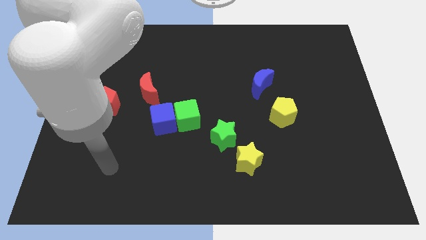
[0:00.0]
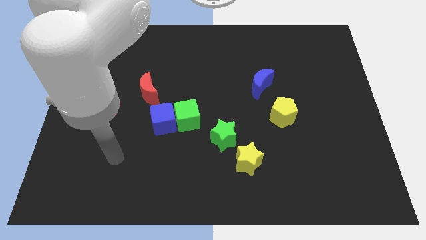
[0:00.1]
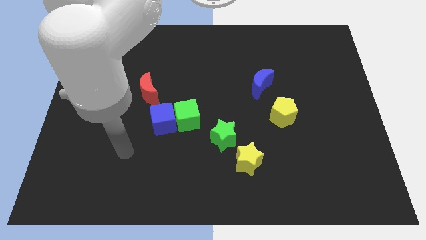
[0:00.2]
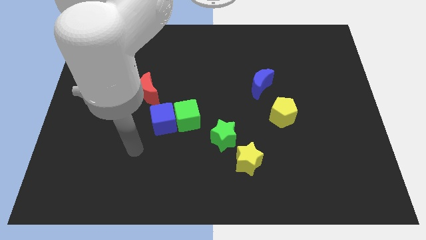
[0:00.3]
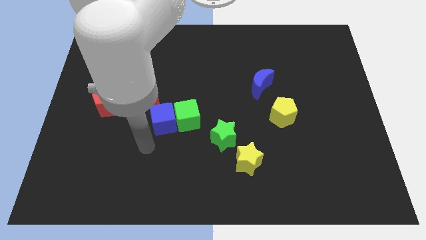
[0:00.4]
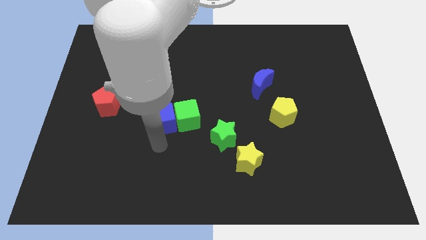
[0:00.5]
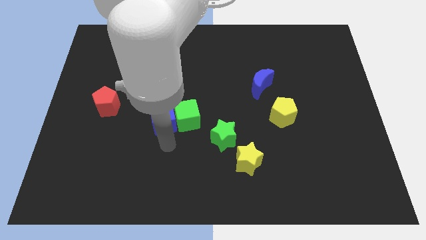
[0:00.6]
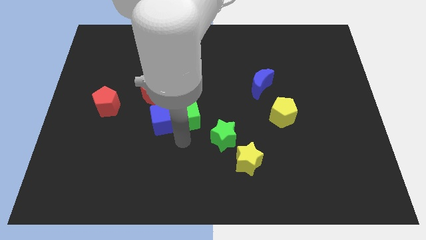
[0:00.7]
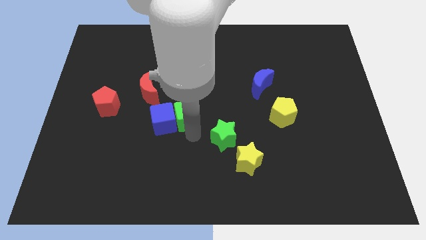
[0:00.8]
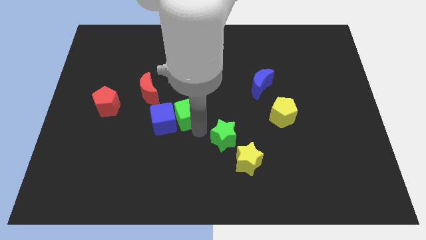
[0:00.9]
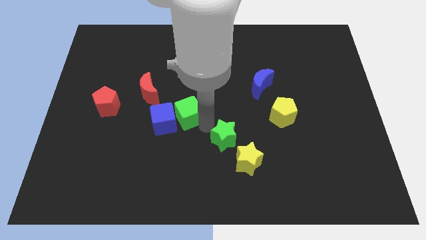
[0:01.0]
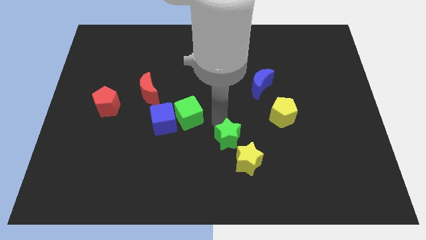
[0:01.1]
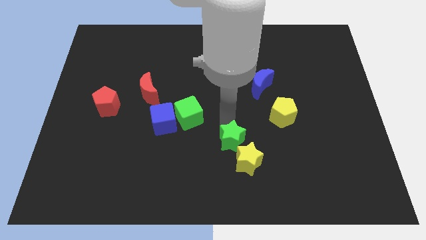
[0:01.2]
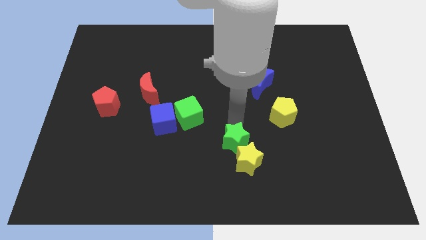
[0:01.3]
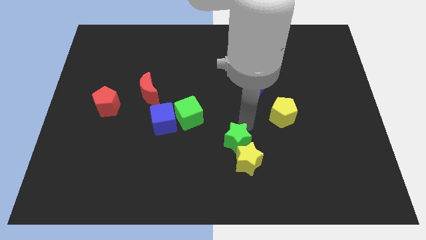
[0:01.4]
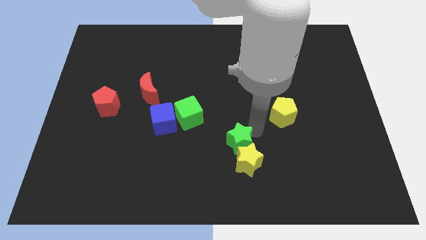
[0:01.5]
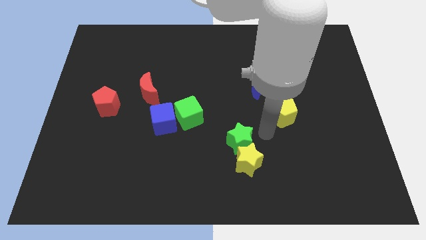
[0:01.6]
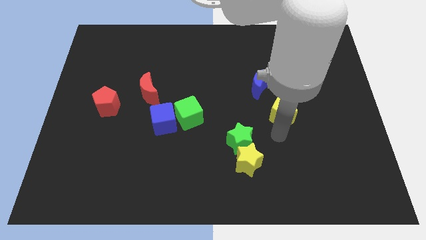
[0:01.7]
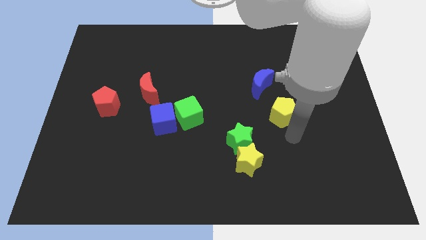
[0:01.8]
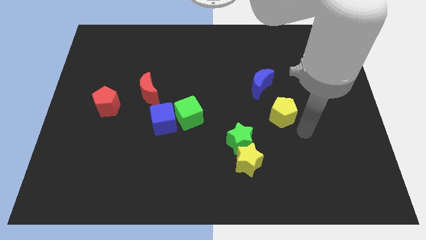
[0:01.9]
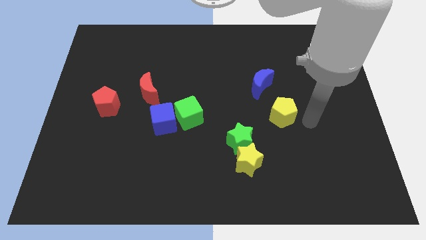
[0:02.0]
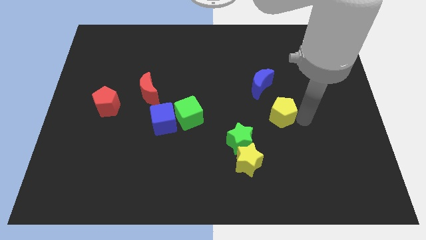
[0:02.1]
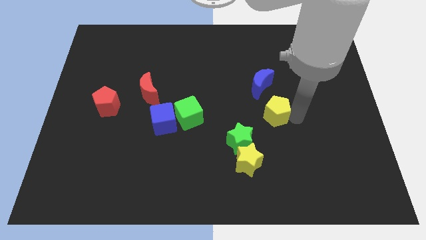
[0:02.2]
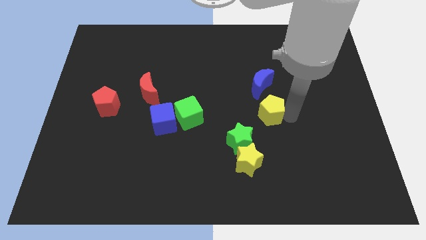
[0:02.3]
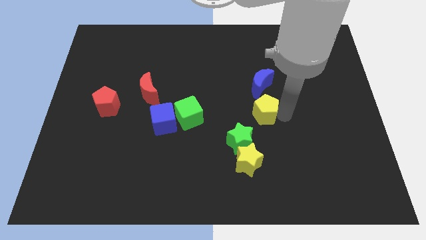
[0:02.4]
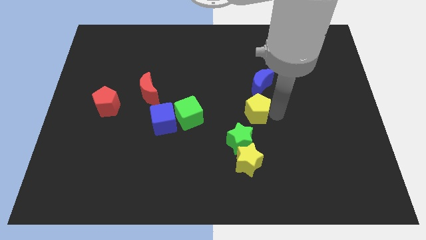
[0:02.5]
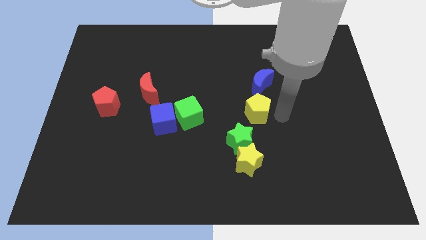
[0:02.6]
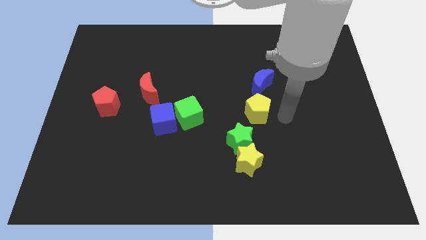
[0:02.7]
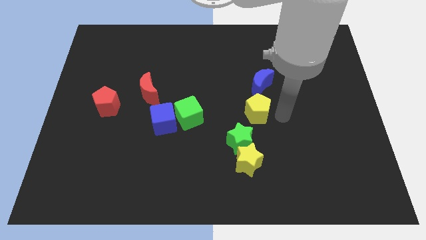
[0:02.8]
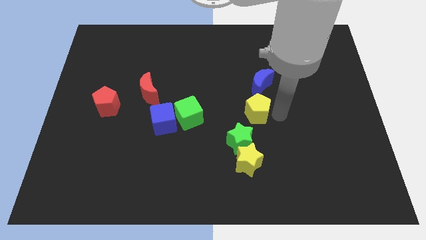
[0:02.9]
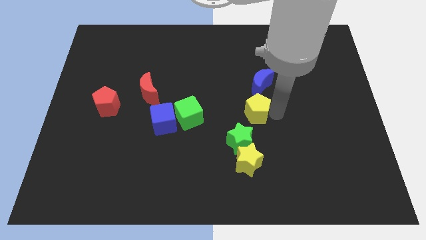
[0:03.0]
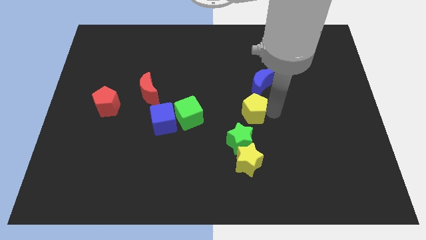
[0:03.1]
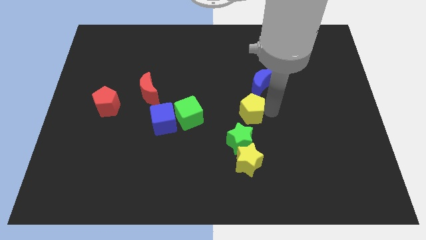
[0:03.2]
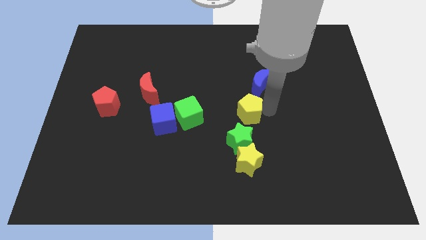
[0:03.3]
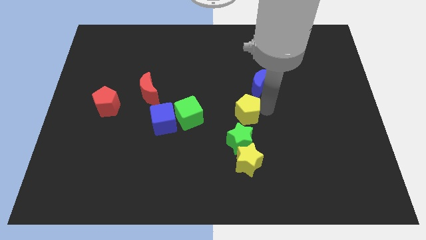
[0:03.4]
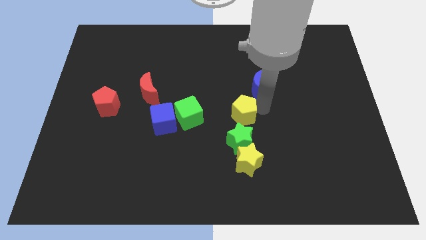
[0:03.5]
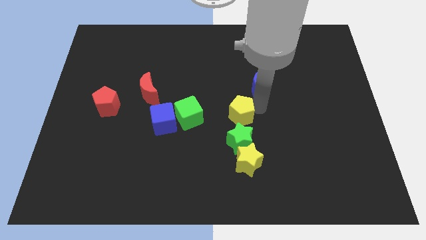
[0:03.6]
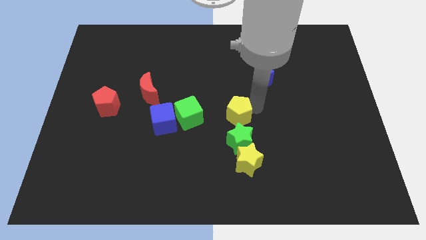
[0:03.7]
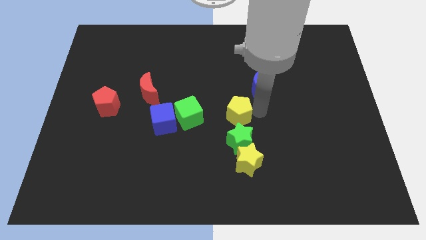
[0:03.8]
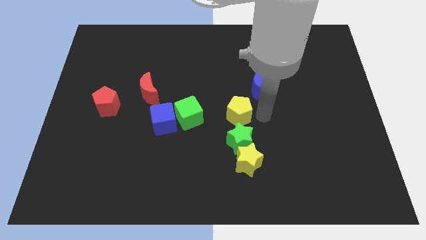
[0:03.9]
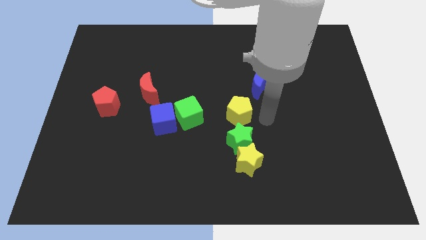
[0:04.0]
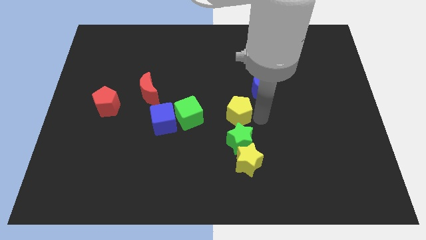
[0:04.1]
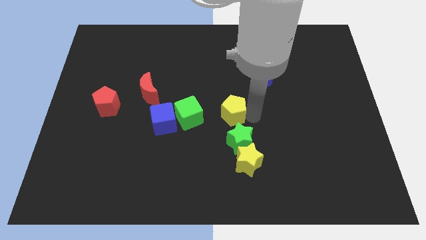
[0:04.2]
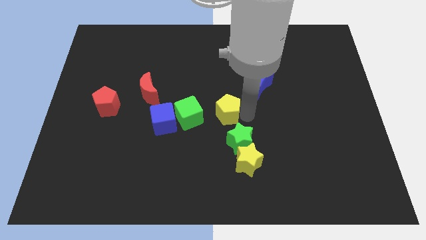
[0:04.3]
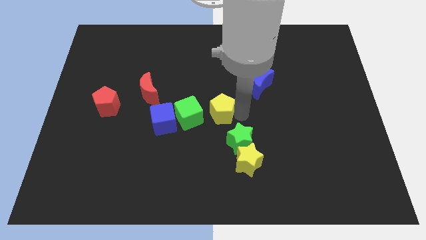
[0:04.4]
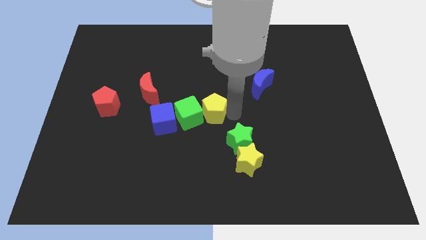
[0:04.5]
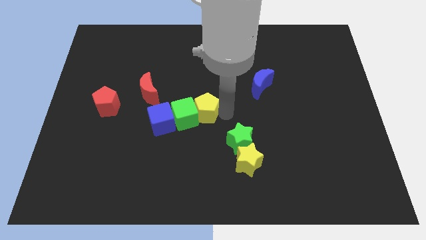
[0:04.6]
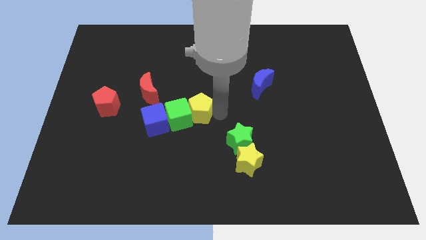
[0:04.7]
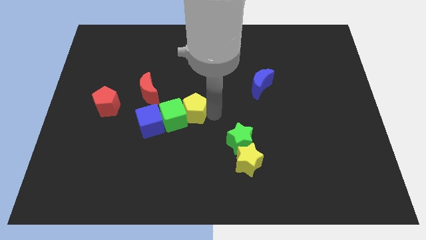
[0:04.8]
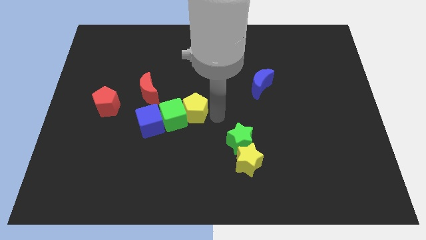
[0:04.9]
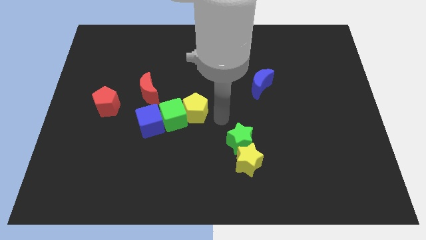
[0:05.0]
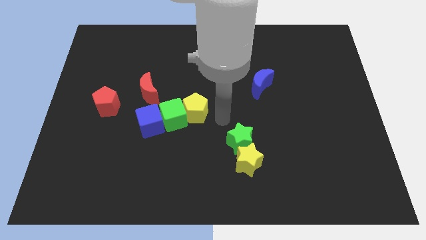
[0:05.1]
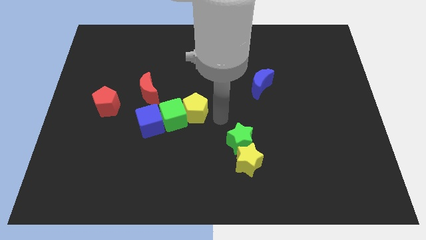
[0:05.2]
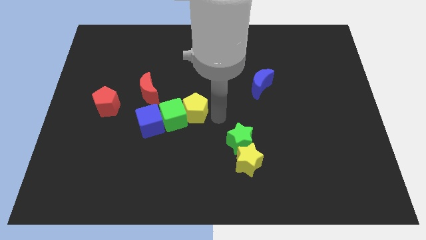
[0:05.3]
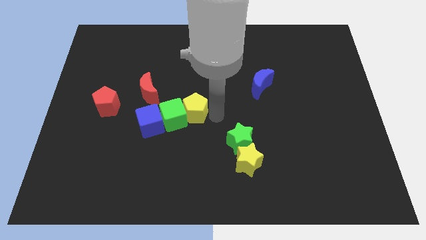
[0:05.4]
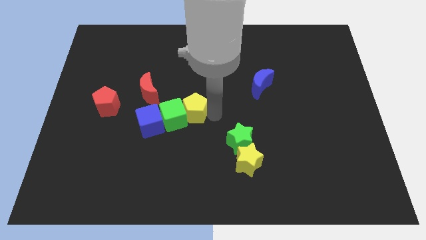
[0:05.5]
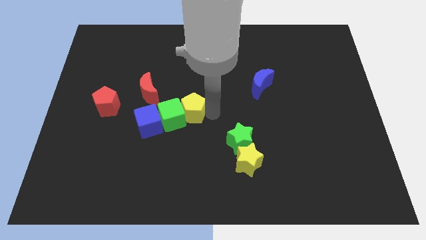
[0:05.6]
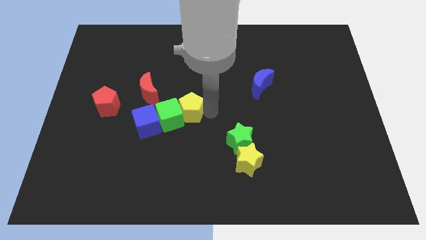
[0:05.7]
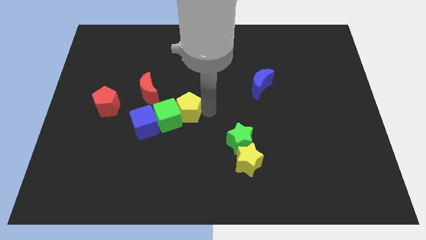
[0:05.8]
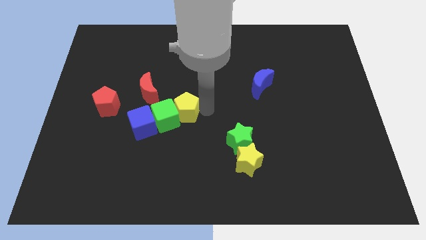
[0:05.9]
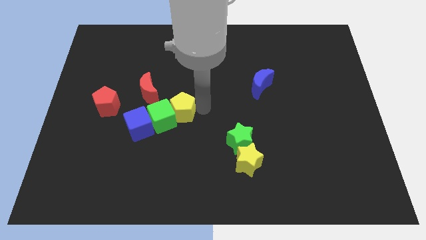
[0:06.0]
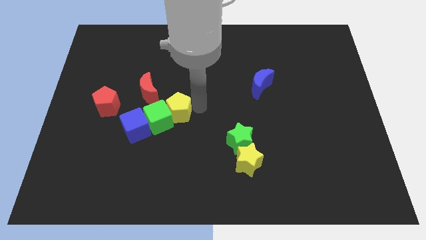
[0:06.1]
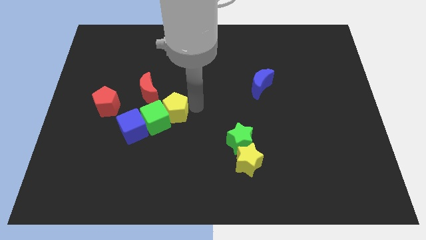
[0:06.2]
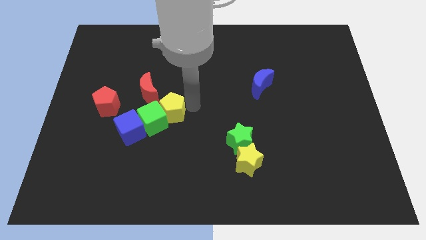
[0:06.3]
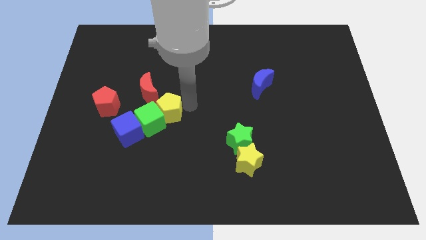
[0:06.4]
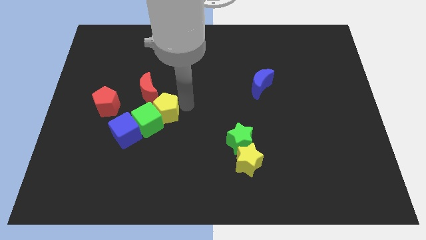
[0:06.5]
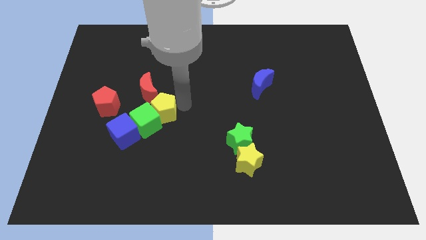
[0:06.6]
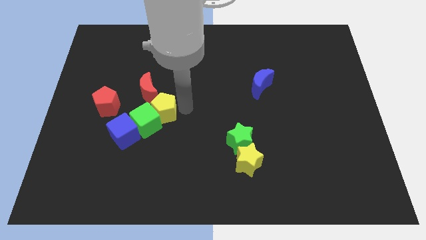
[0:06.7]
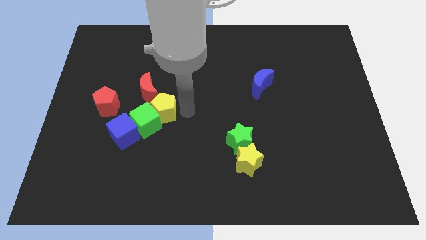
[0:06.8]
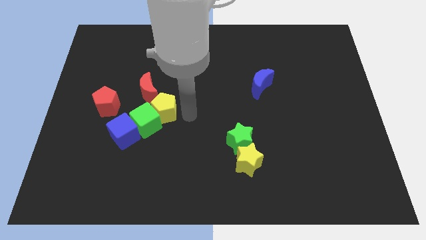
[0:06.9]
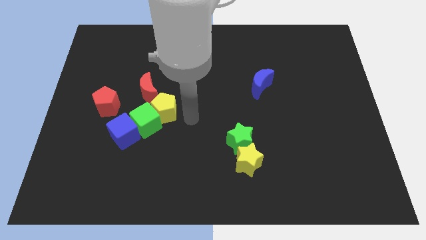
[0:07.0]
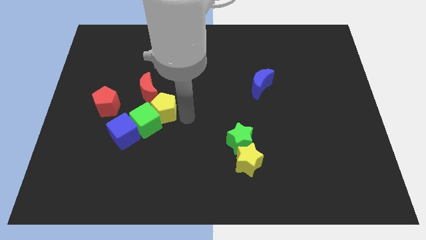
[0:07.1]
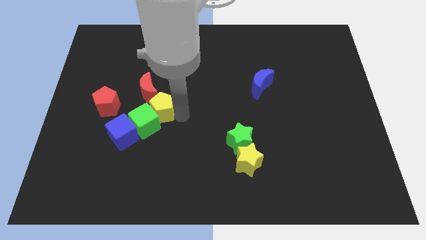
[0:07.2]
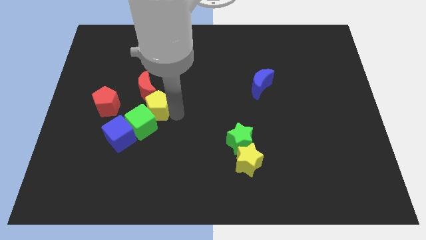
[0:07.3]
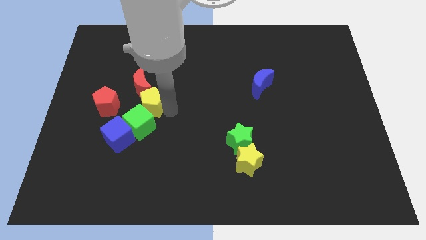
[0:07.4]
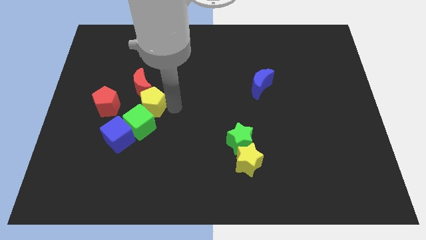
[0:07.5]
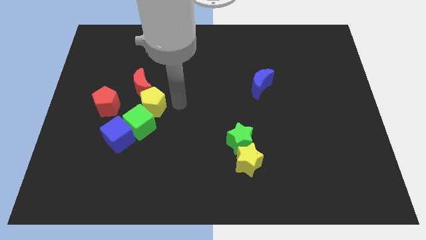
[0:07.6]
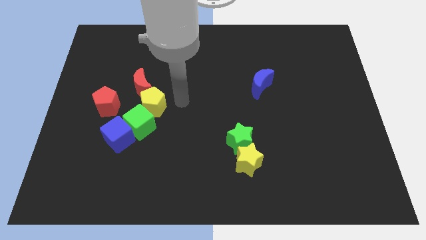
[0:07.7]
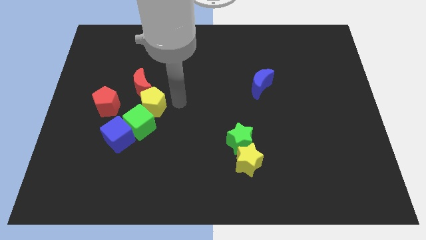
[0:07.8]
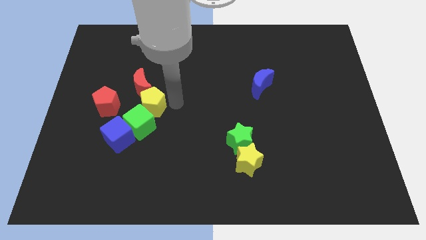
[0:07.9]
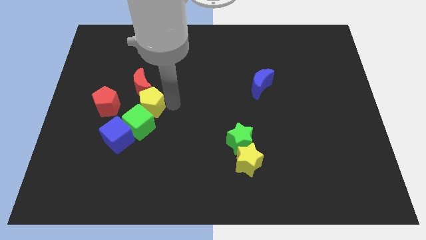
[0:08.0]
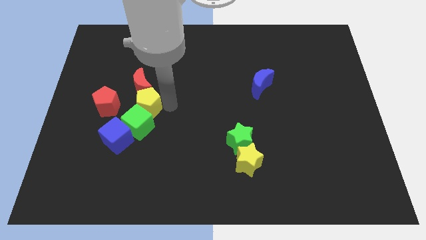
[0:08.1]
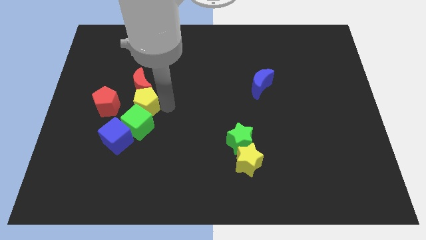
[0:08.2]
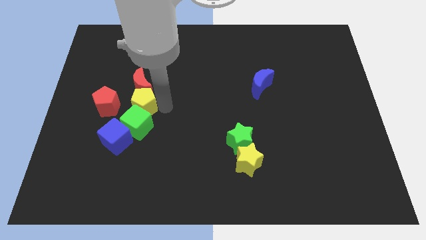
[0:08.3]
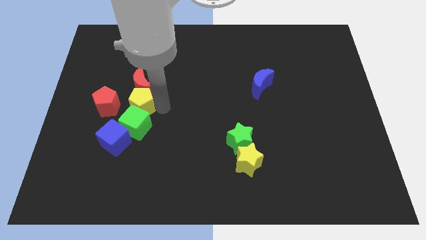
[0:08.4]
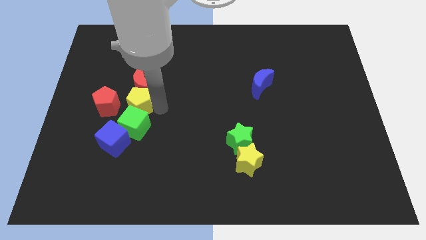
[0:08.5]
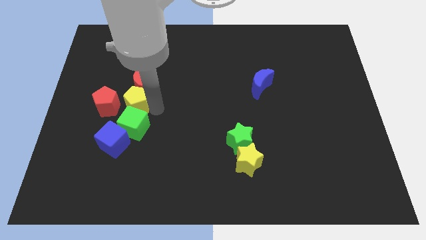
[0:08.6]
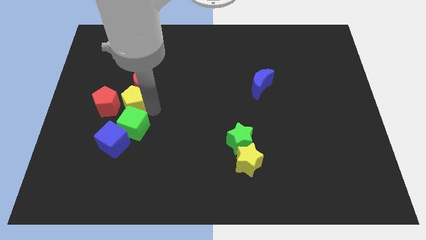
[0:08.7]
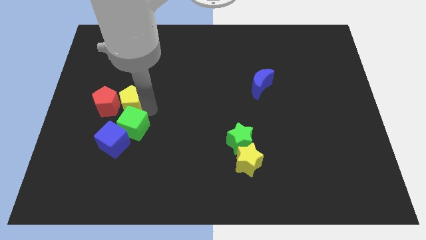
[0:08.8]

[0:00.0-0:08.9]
put the yellow pentagon to the red pentagon
